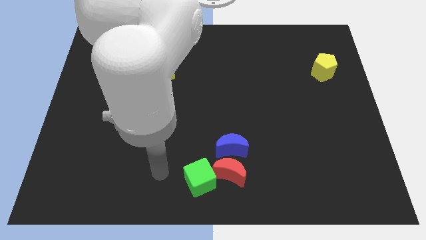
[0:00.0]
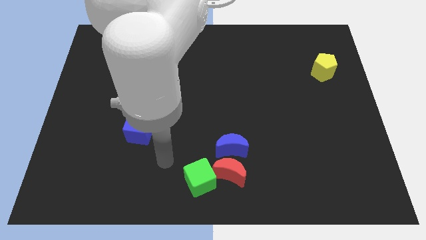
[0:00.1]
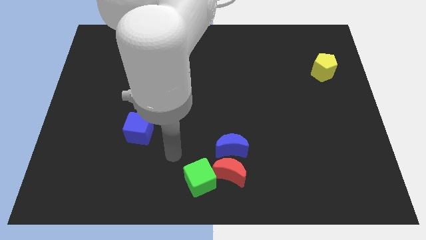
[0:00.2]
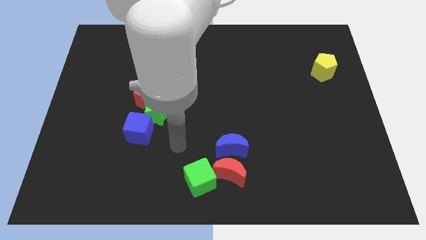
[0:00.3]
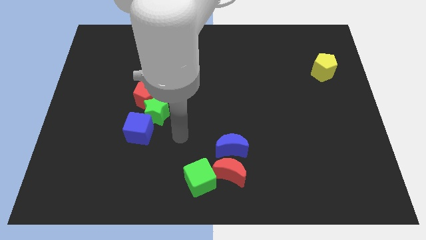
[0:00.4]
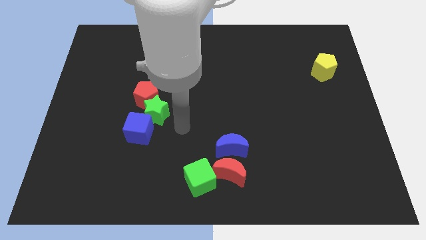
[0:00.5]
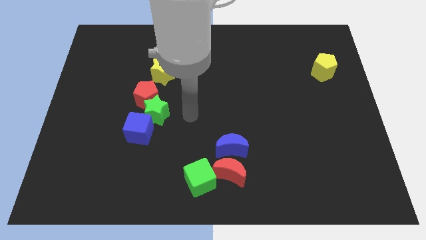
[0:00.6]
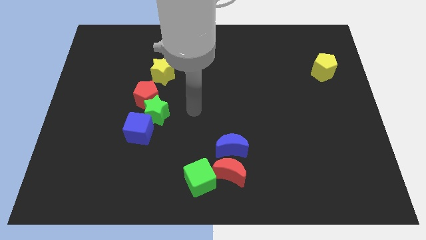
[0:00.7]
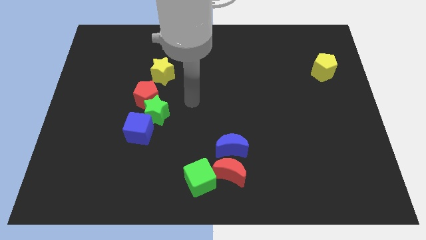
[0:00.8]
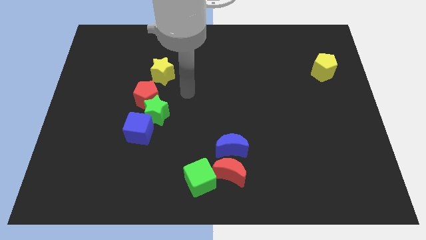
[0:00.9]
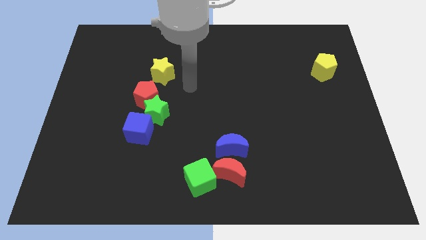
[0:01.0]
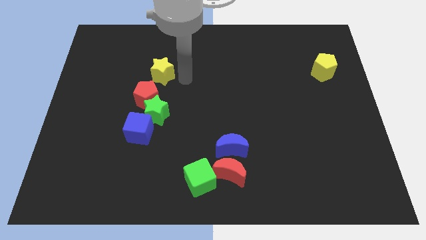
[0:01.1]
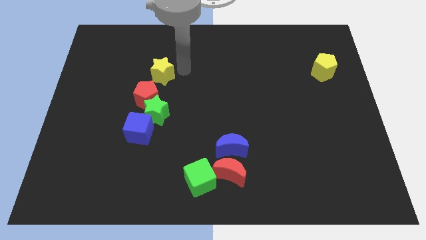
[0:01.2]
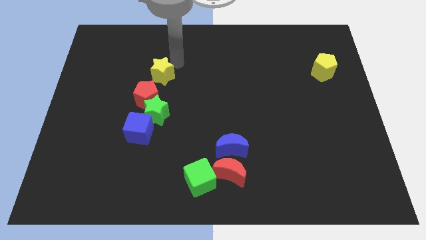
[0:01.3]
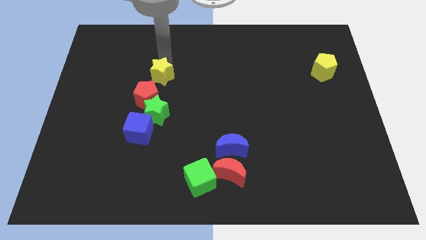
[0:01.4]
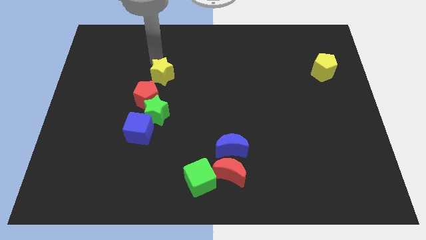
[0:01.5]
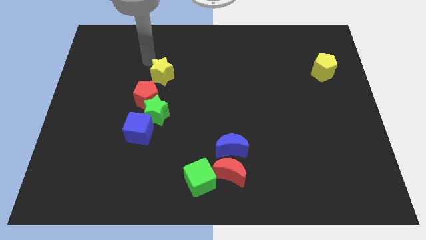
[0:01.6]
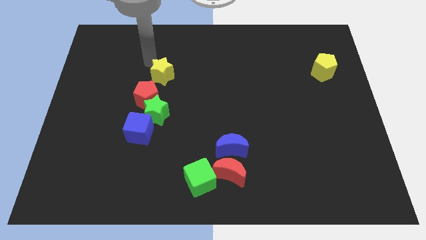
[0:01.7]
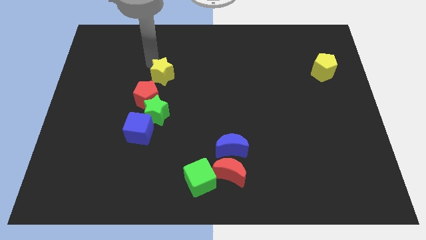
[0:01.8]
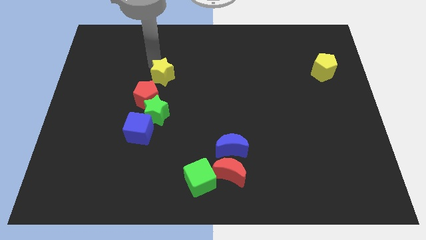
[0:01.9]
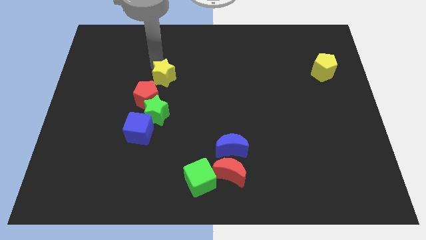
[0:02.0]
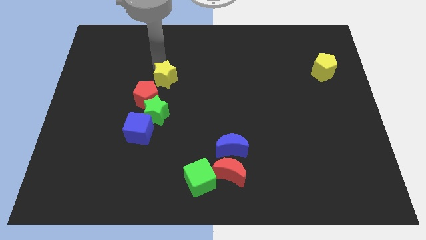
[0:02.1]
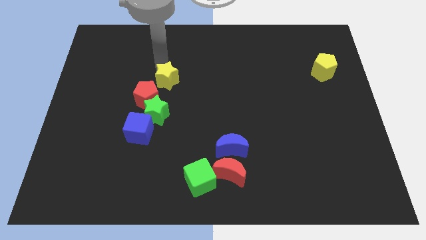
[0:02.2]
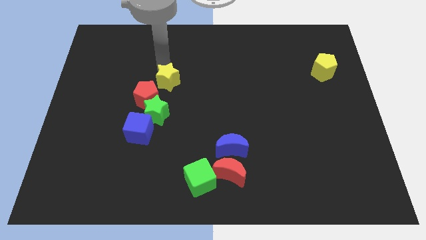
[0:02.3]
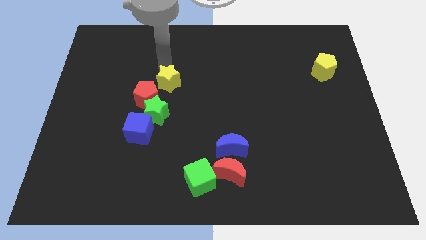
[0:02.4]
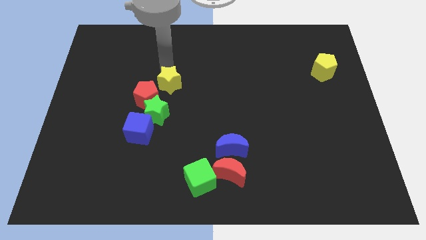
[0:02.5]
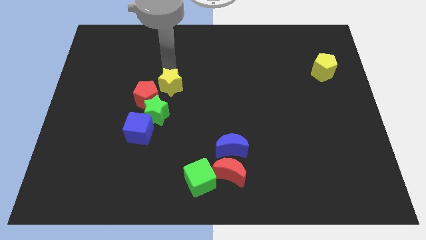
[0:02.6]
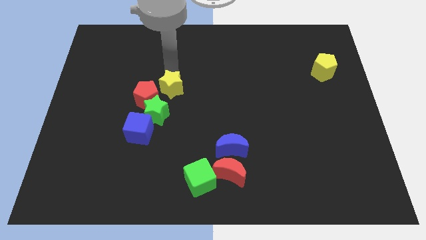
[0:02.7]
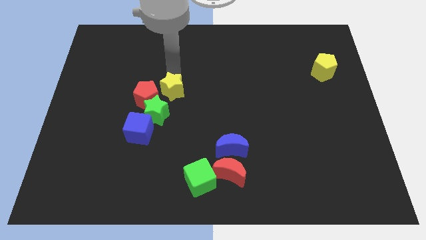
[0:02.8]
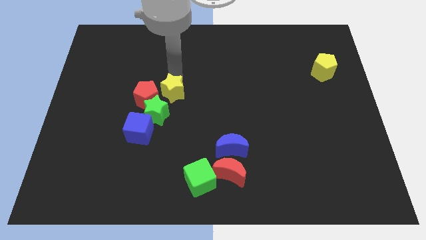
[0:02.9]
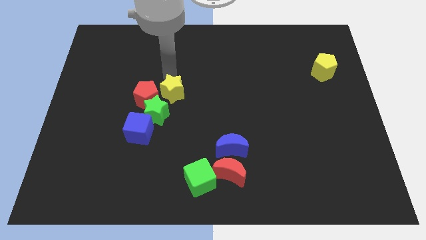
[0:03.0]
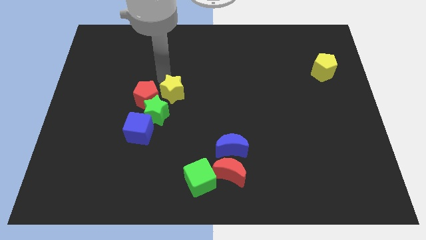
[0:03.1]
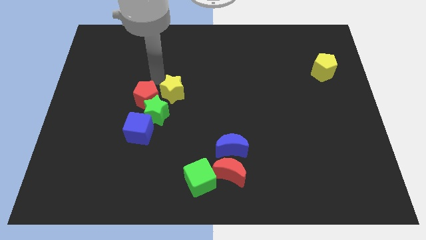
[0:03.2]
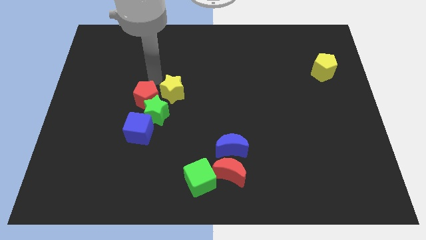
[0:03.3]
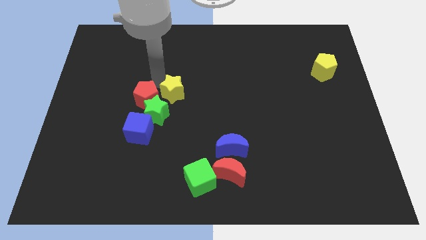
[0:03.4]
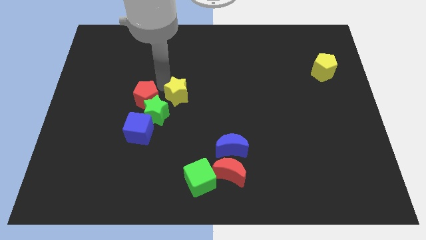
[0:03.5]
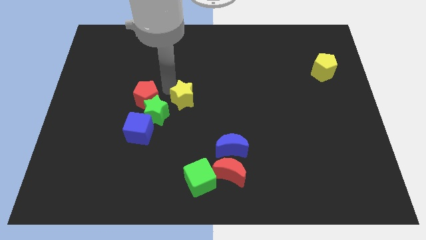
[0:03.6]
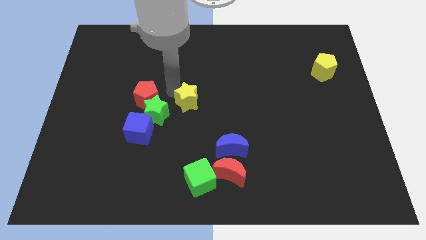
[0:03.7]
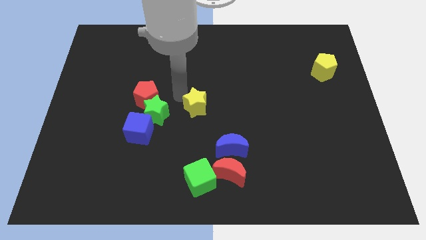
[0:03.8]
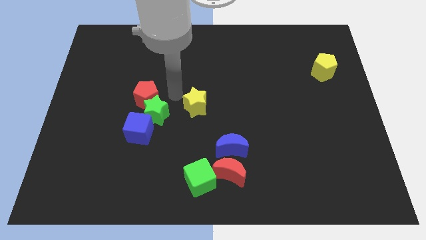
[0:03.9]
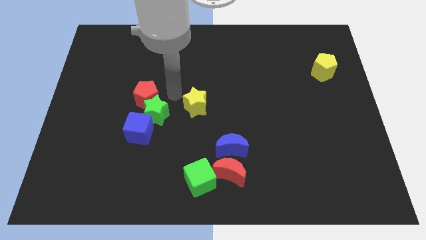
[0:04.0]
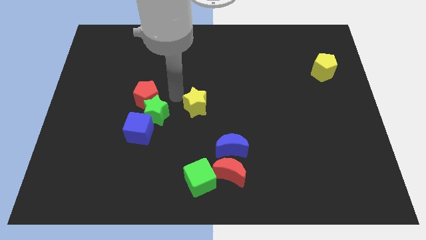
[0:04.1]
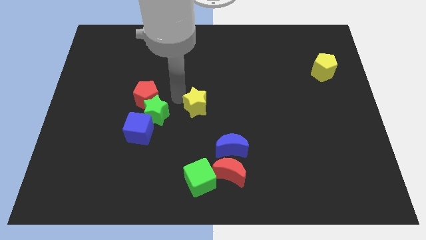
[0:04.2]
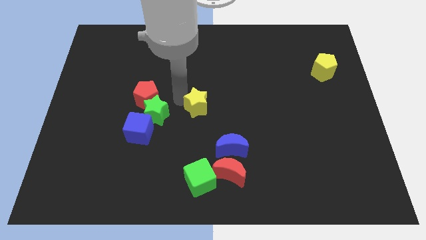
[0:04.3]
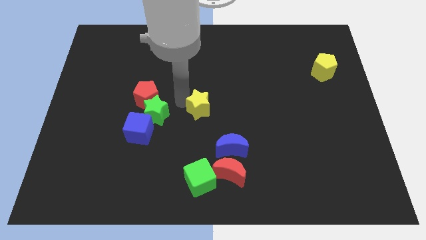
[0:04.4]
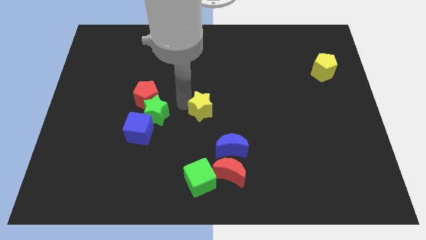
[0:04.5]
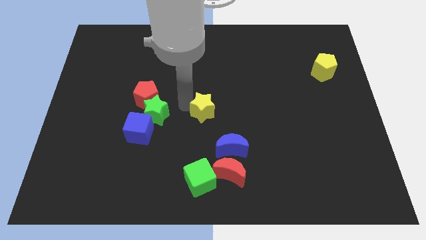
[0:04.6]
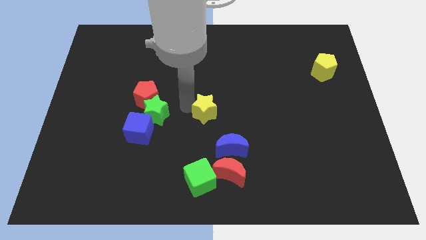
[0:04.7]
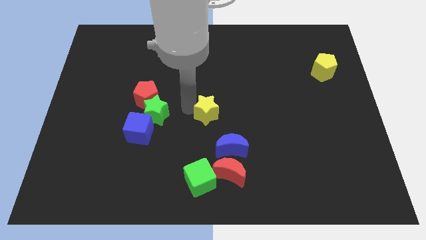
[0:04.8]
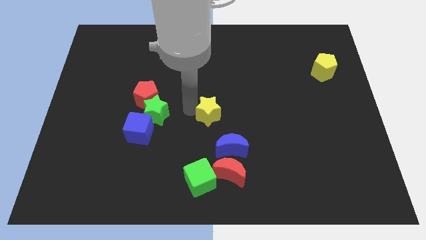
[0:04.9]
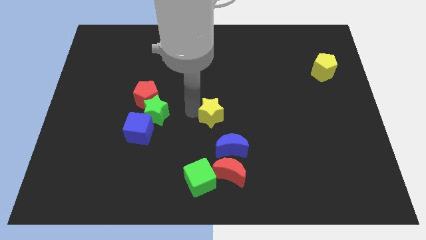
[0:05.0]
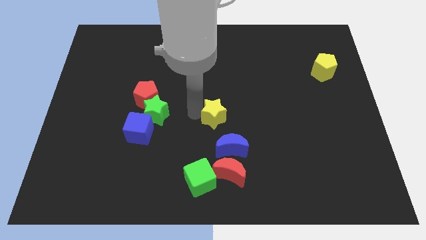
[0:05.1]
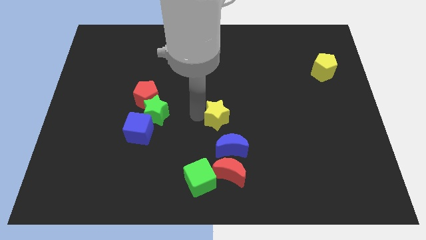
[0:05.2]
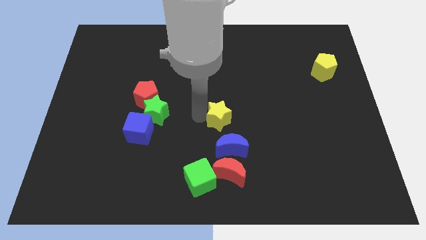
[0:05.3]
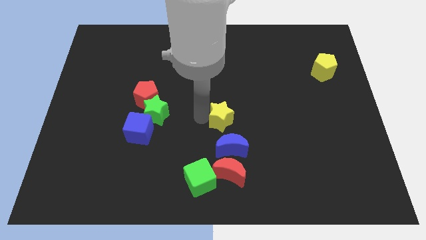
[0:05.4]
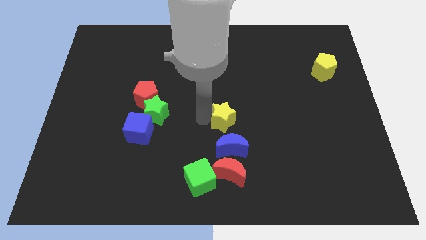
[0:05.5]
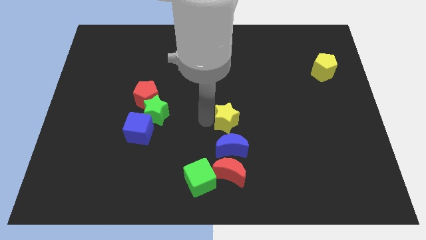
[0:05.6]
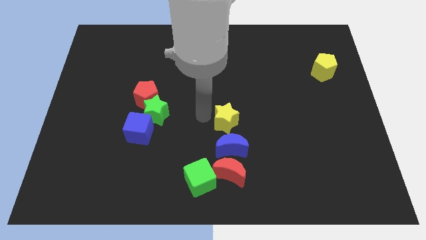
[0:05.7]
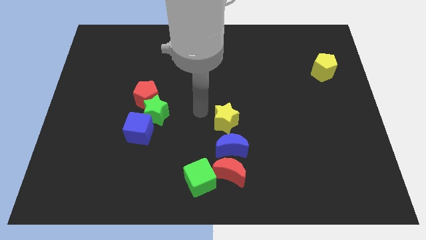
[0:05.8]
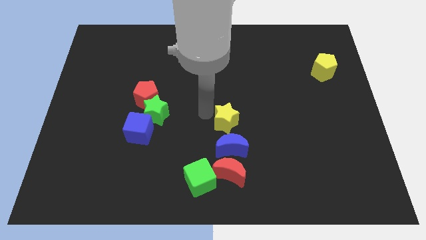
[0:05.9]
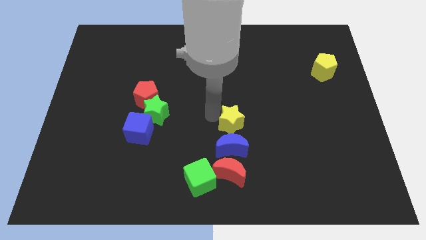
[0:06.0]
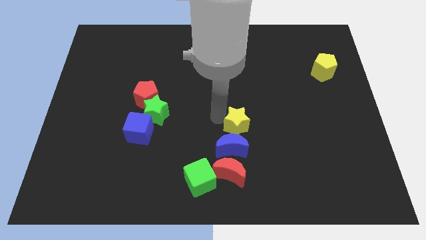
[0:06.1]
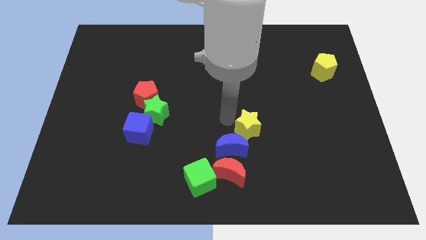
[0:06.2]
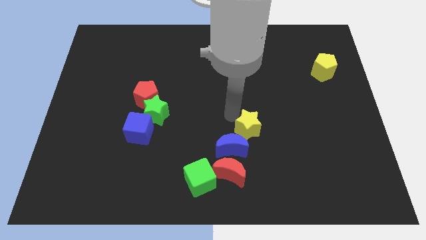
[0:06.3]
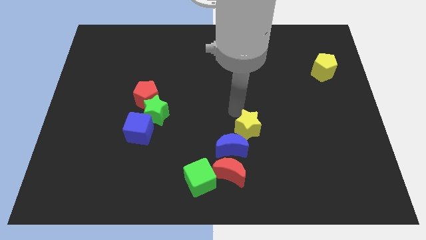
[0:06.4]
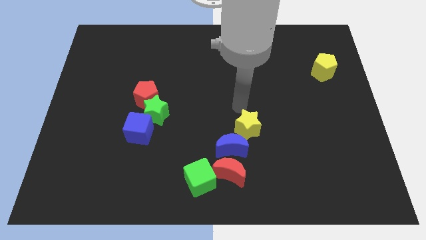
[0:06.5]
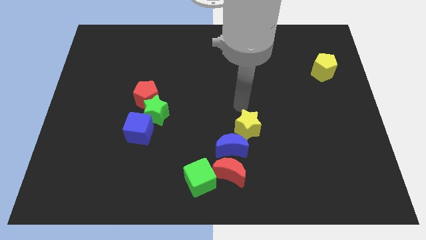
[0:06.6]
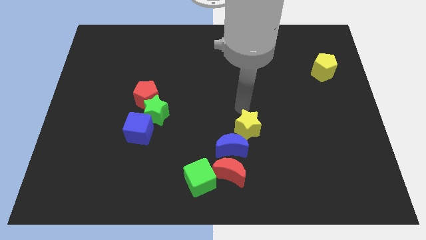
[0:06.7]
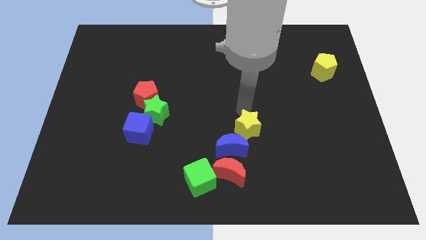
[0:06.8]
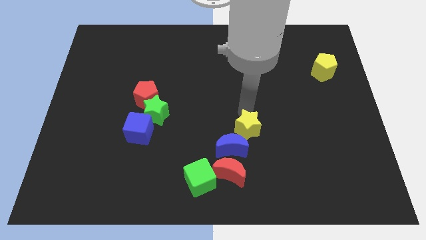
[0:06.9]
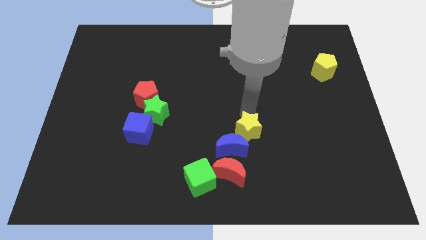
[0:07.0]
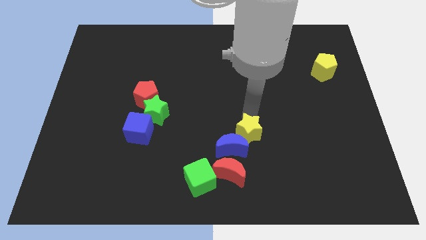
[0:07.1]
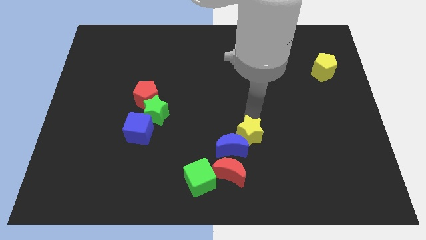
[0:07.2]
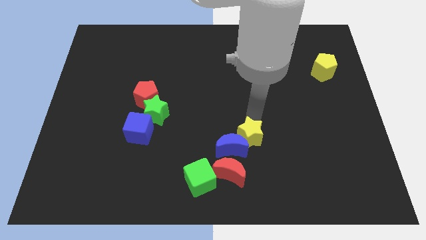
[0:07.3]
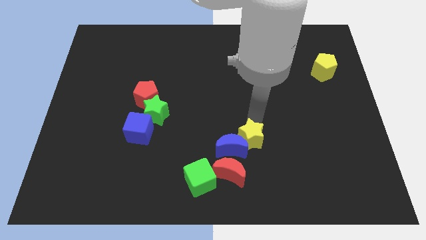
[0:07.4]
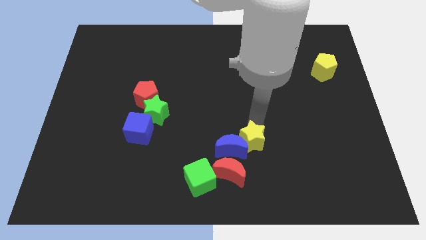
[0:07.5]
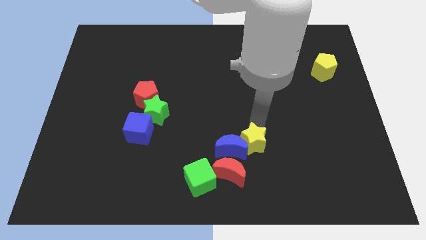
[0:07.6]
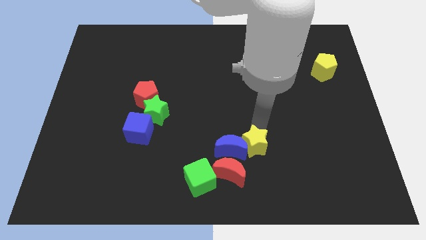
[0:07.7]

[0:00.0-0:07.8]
push the yellow star diagonally down and to the right of the blue moon

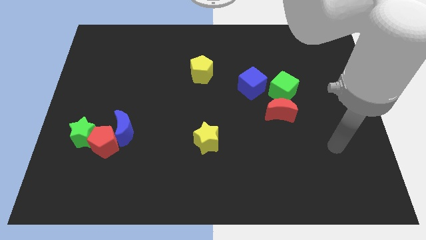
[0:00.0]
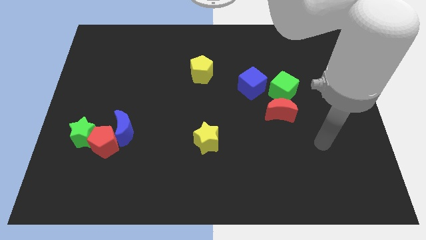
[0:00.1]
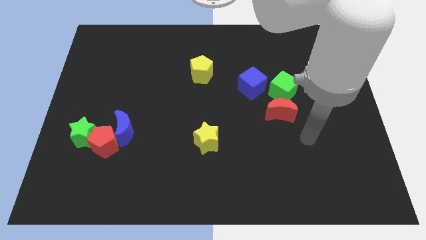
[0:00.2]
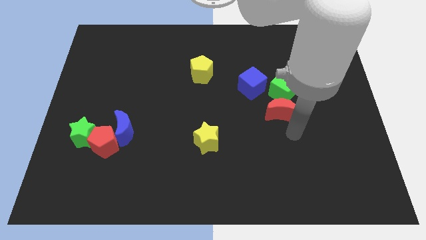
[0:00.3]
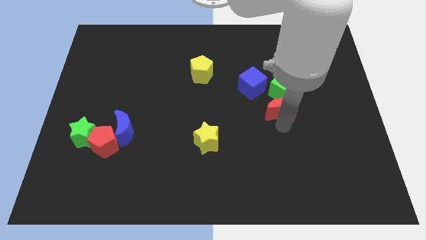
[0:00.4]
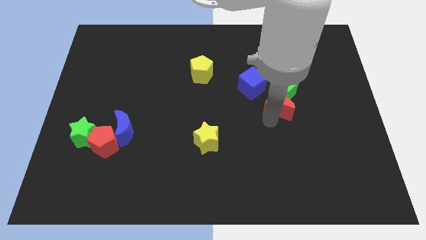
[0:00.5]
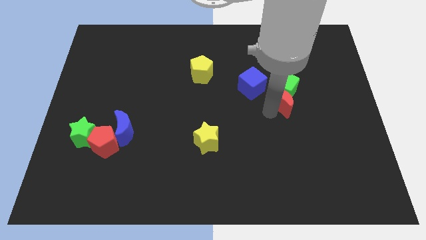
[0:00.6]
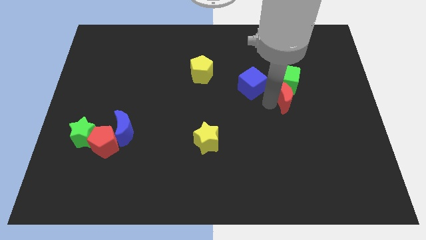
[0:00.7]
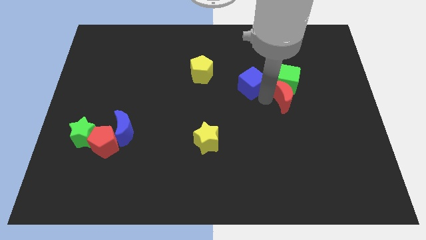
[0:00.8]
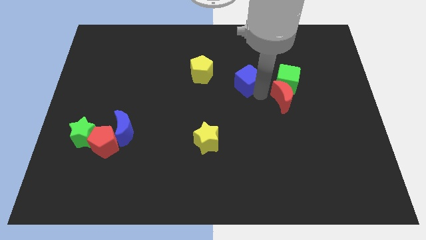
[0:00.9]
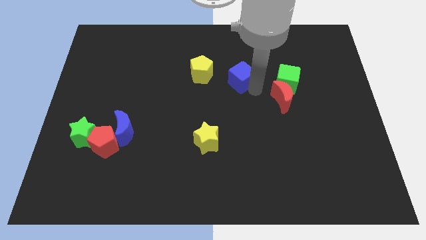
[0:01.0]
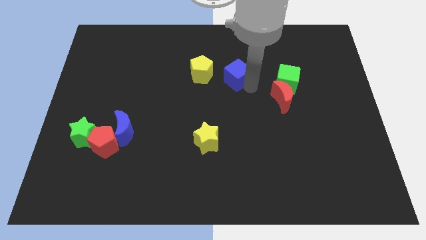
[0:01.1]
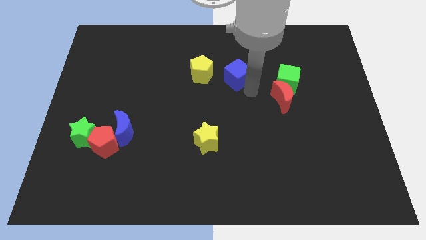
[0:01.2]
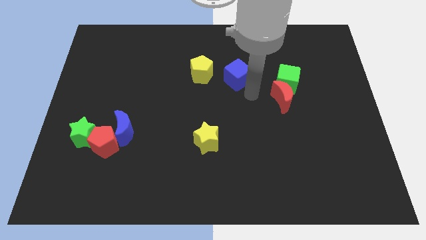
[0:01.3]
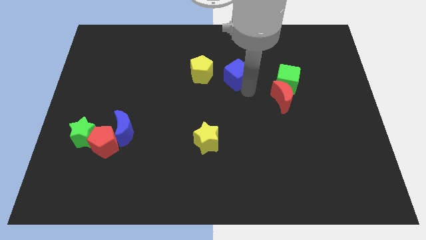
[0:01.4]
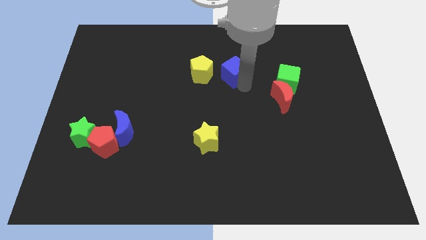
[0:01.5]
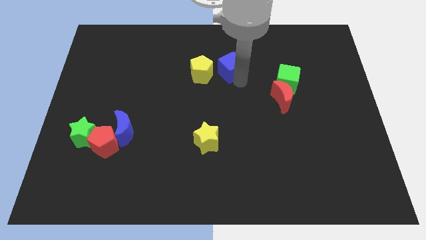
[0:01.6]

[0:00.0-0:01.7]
move the blue cube to the top right side of the yellow pentagon
